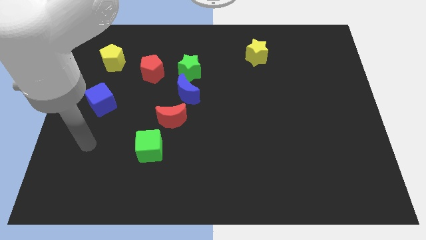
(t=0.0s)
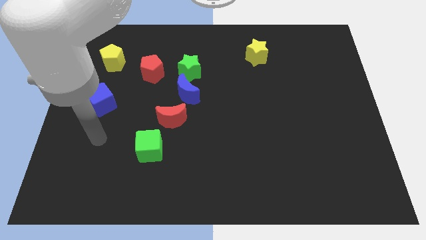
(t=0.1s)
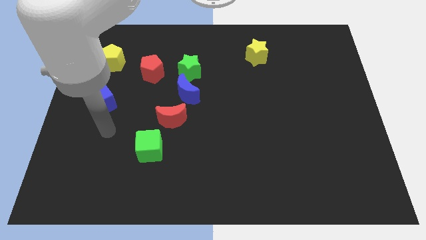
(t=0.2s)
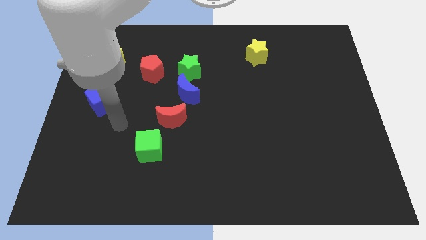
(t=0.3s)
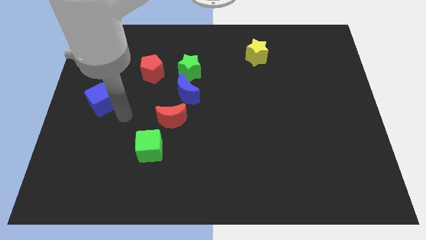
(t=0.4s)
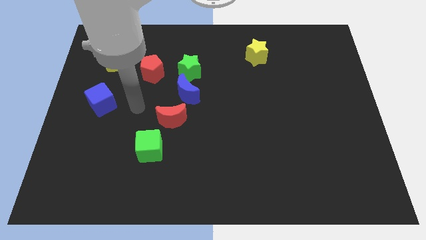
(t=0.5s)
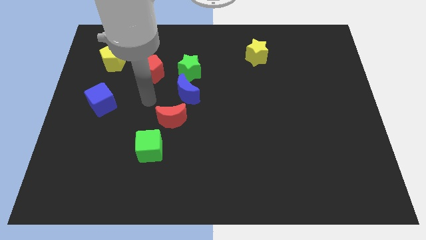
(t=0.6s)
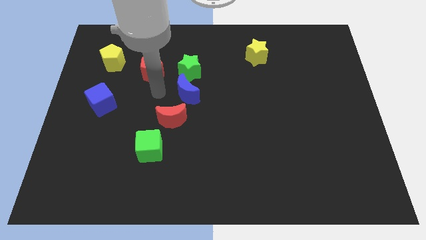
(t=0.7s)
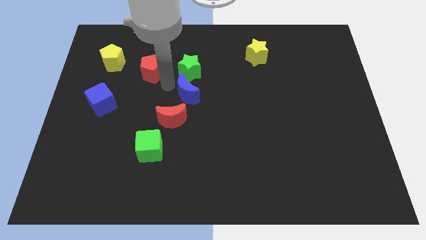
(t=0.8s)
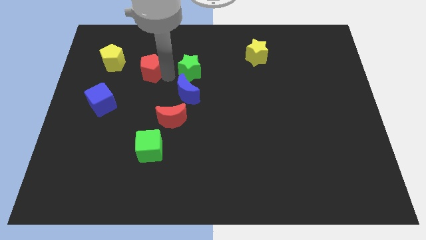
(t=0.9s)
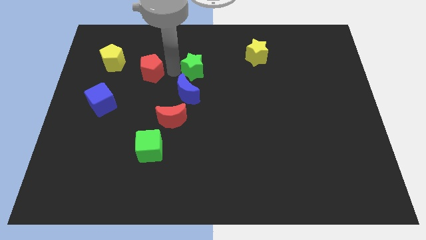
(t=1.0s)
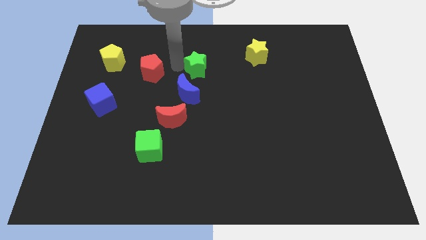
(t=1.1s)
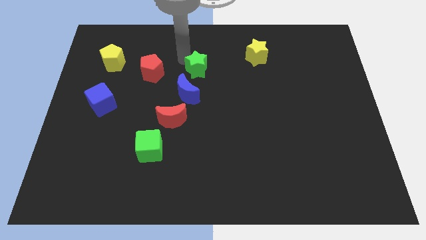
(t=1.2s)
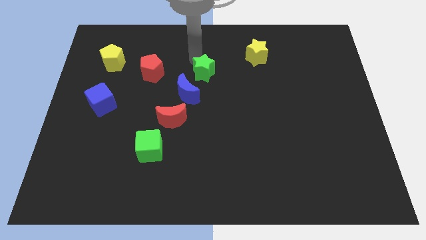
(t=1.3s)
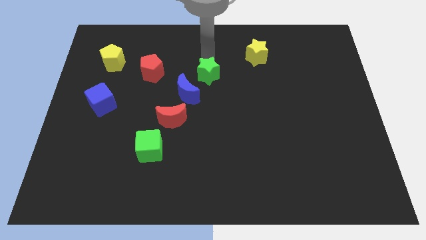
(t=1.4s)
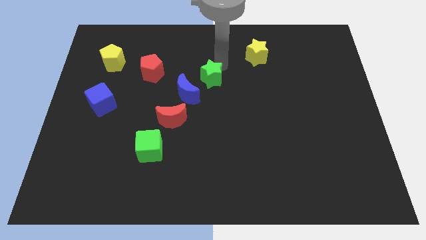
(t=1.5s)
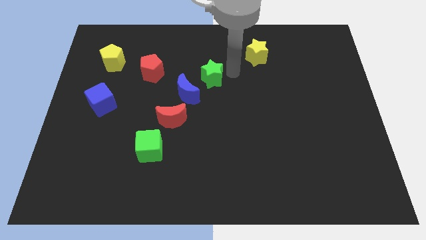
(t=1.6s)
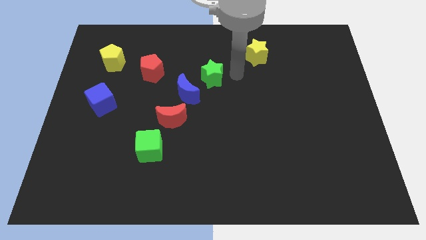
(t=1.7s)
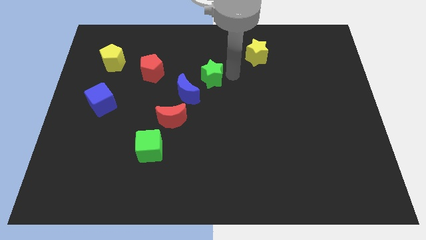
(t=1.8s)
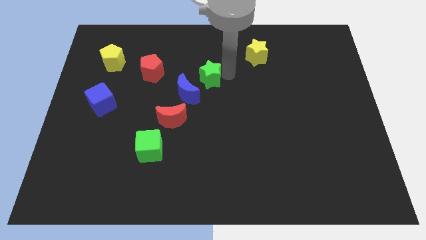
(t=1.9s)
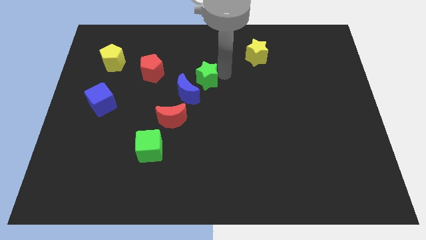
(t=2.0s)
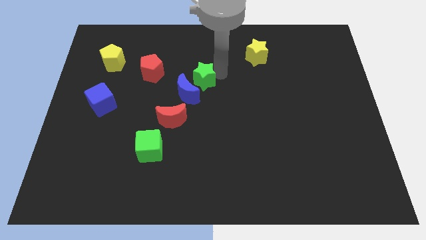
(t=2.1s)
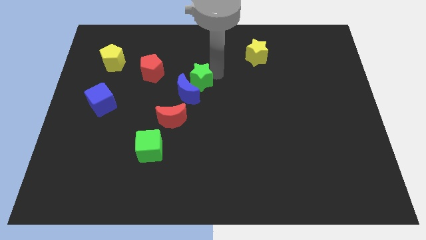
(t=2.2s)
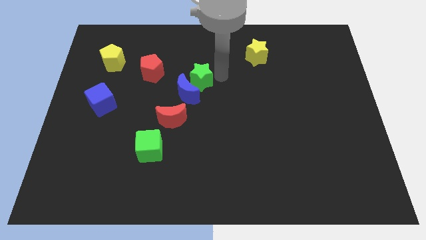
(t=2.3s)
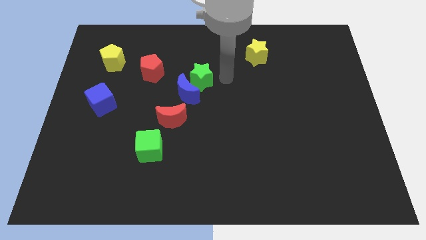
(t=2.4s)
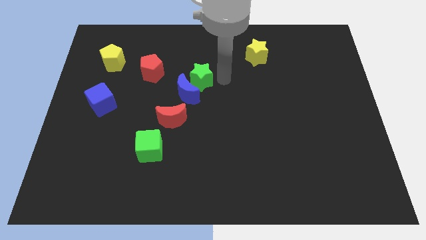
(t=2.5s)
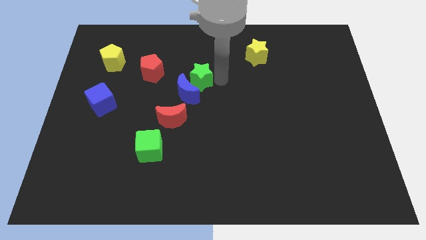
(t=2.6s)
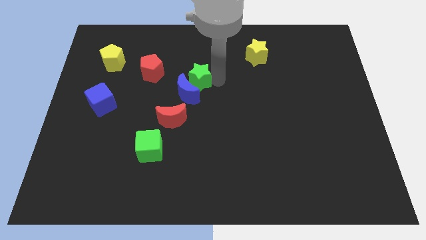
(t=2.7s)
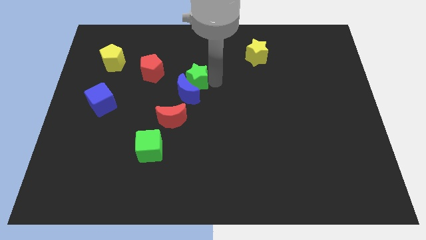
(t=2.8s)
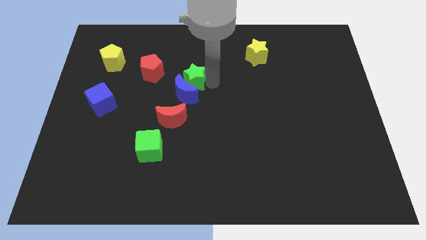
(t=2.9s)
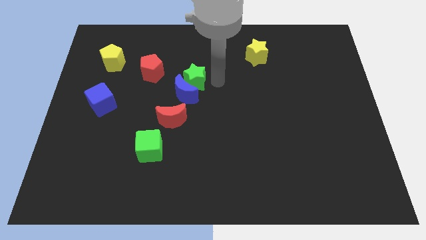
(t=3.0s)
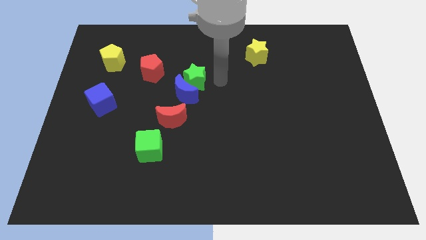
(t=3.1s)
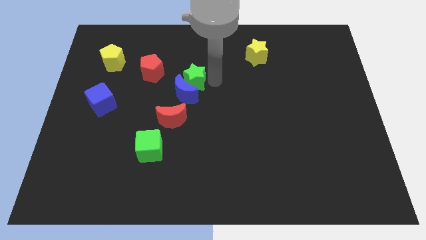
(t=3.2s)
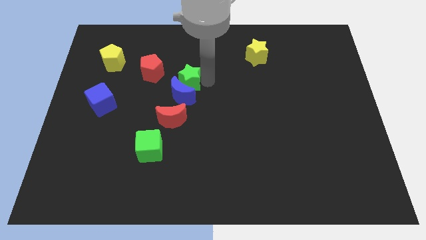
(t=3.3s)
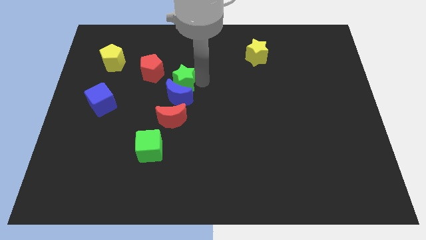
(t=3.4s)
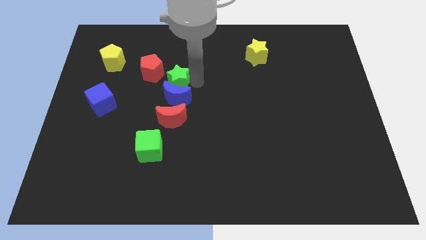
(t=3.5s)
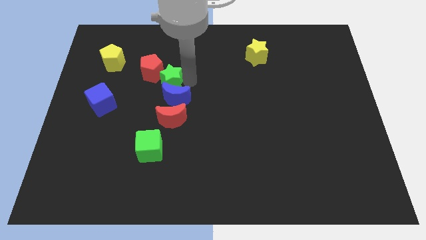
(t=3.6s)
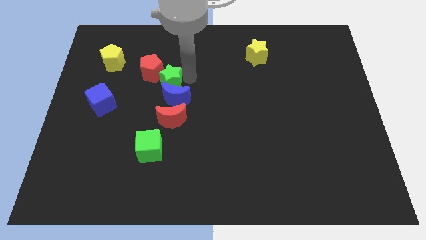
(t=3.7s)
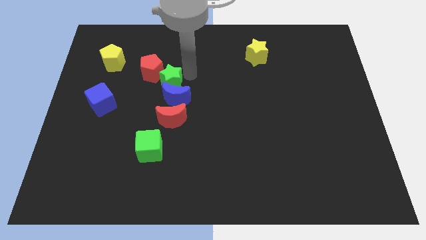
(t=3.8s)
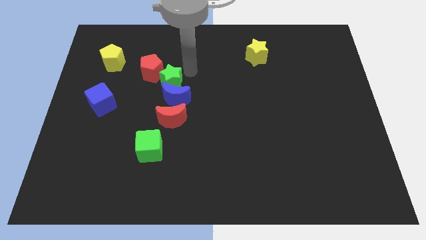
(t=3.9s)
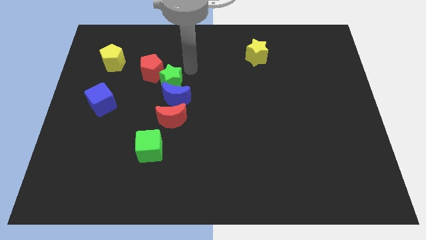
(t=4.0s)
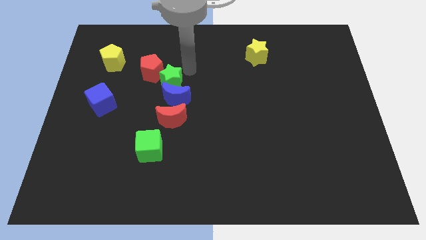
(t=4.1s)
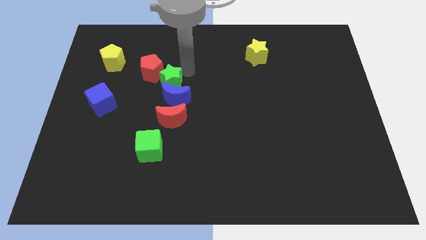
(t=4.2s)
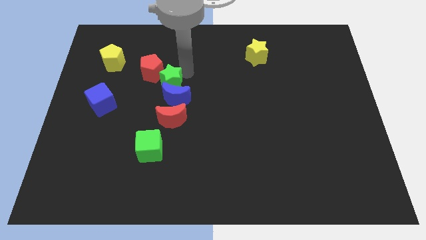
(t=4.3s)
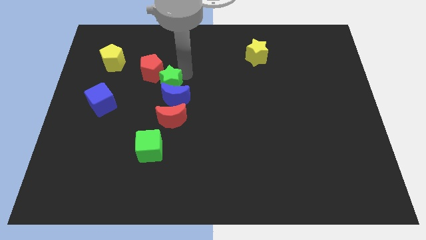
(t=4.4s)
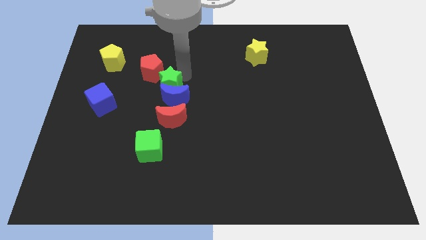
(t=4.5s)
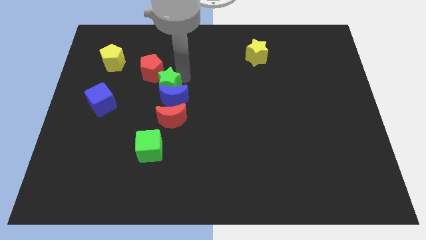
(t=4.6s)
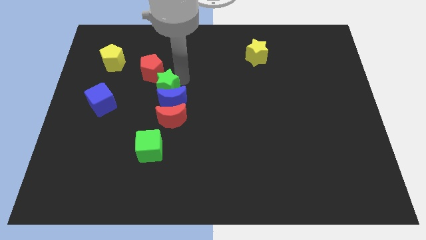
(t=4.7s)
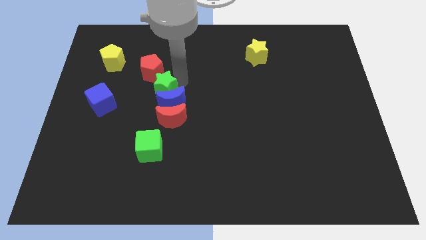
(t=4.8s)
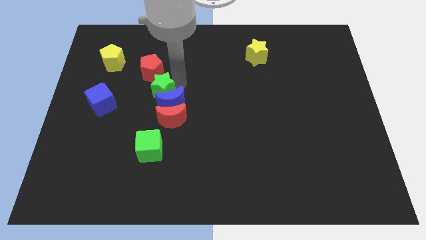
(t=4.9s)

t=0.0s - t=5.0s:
slide the green star to the right side of the blue cube

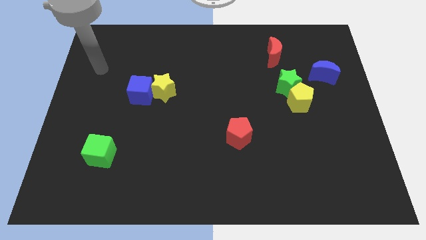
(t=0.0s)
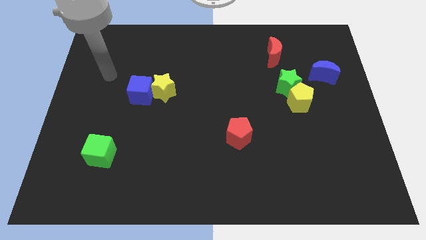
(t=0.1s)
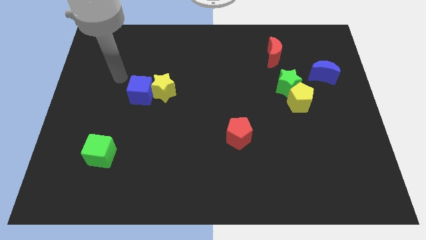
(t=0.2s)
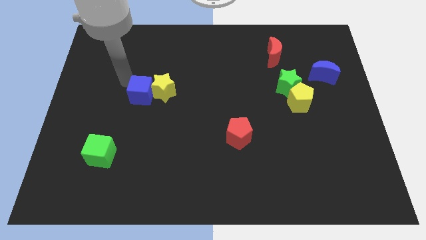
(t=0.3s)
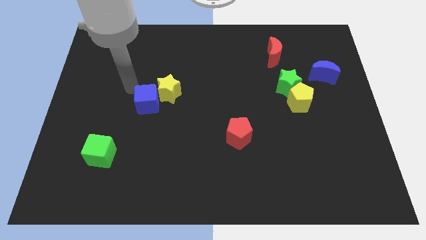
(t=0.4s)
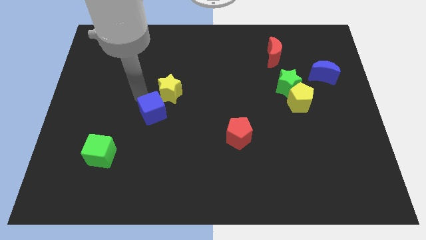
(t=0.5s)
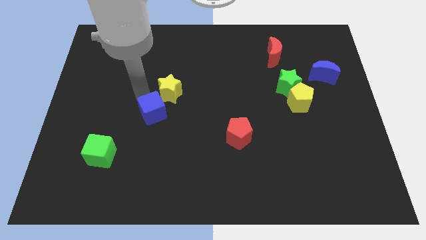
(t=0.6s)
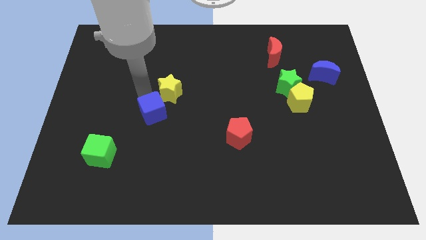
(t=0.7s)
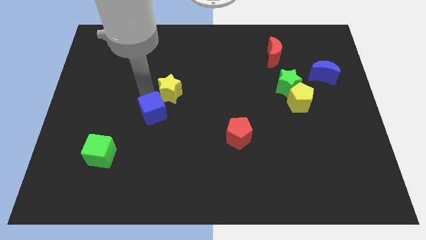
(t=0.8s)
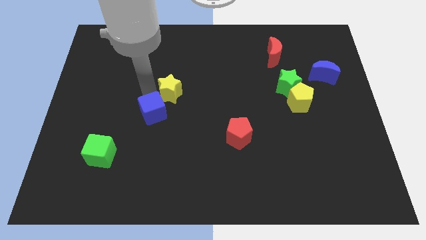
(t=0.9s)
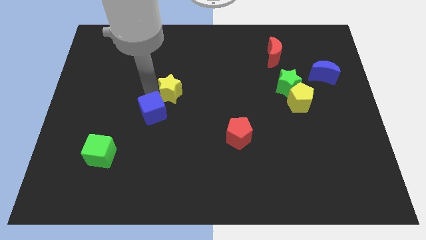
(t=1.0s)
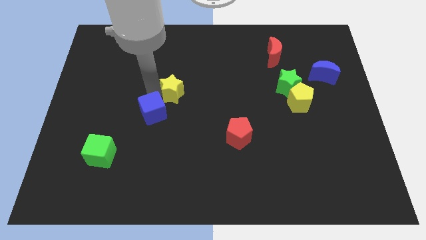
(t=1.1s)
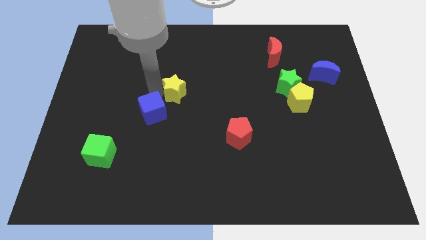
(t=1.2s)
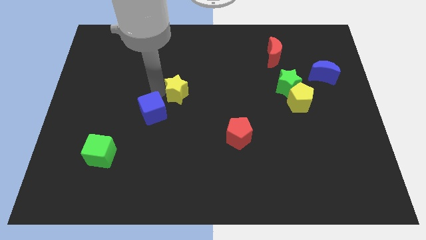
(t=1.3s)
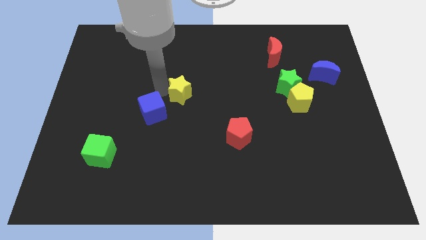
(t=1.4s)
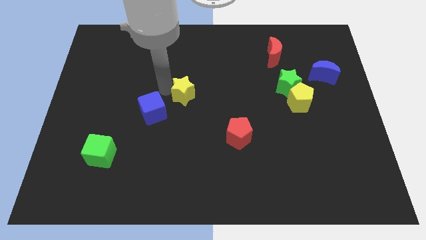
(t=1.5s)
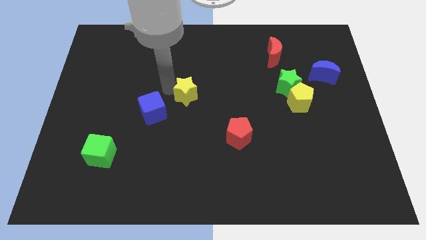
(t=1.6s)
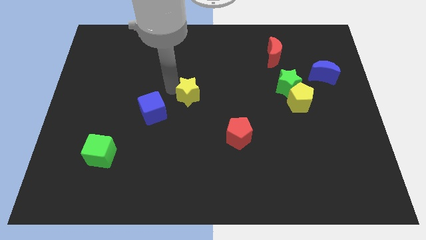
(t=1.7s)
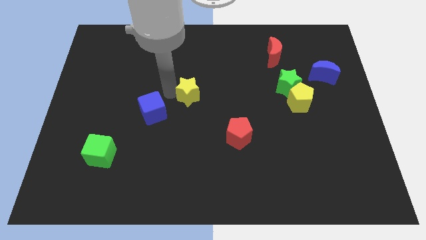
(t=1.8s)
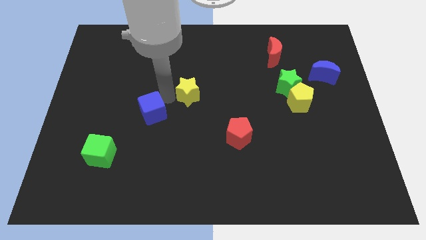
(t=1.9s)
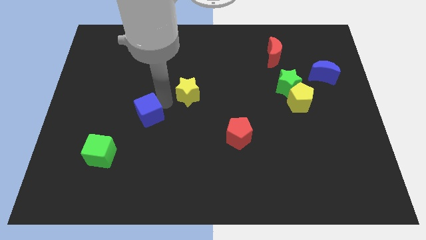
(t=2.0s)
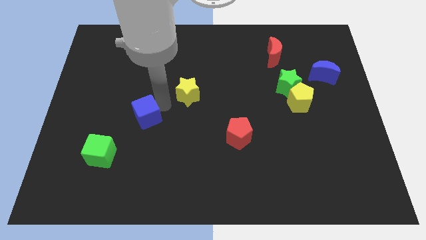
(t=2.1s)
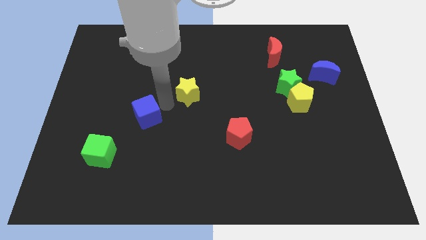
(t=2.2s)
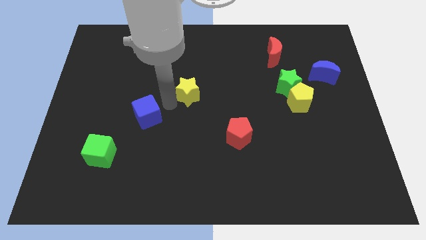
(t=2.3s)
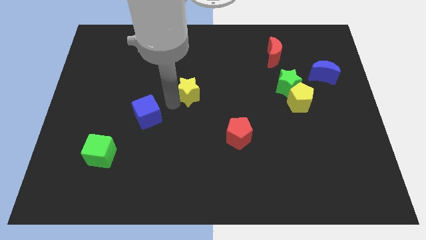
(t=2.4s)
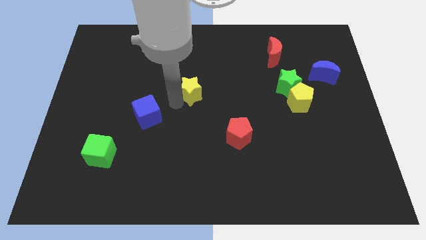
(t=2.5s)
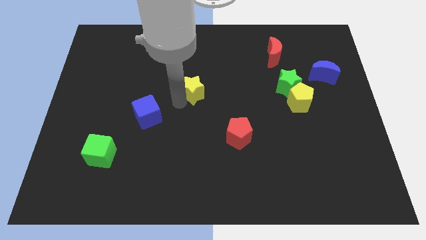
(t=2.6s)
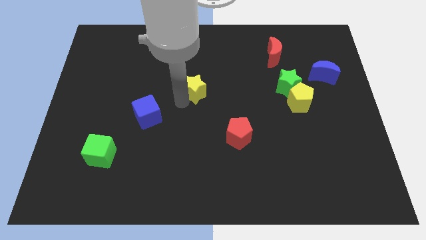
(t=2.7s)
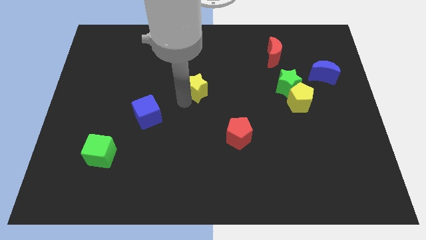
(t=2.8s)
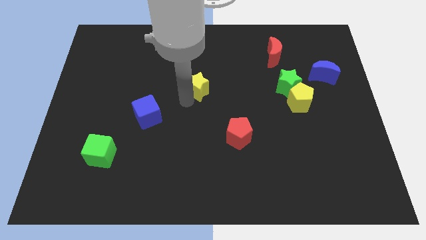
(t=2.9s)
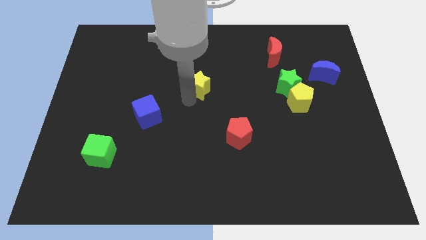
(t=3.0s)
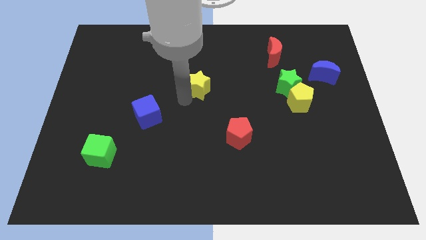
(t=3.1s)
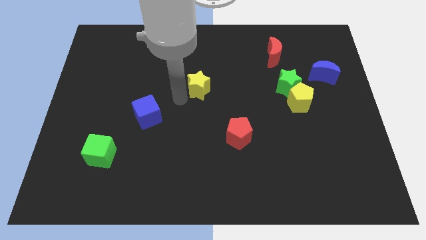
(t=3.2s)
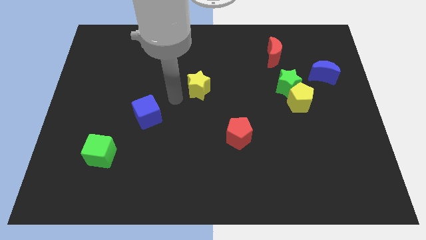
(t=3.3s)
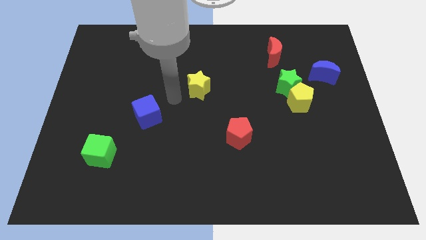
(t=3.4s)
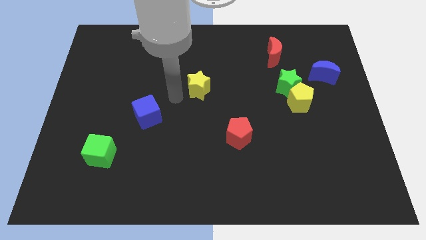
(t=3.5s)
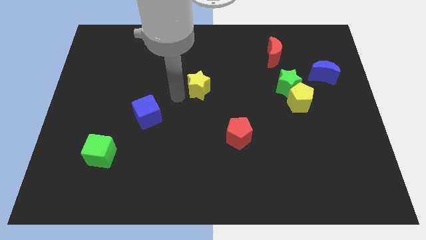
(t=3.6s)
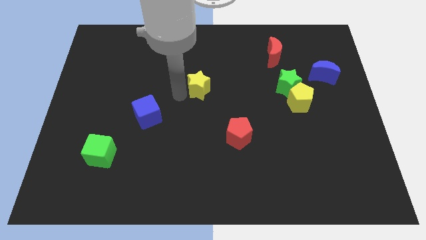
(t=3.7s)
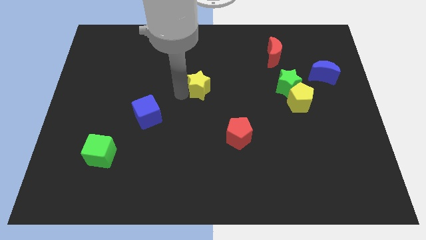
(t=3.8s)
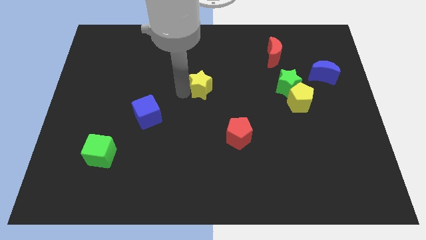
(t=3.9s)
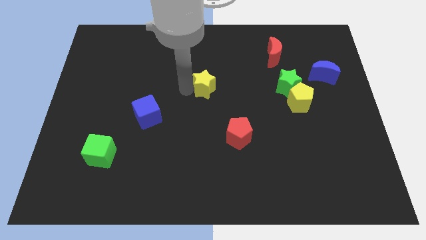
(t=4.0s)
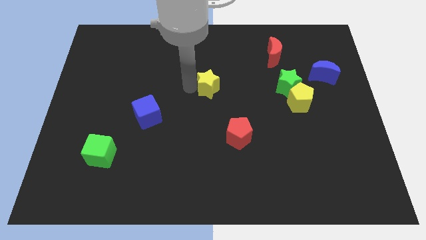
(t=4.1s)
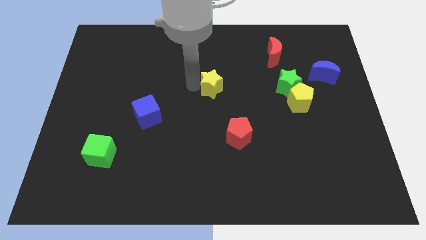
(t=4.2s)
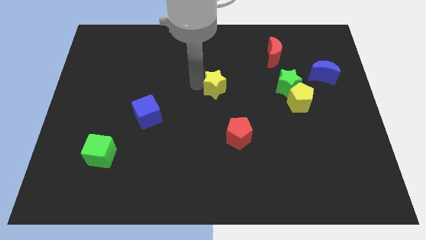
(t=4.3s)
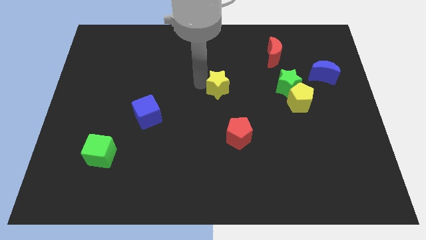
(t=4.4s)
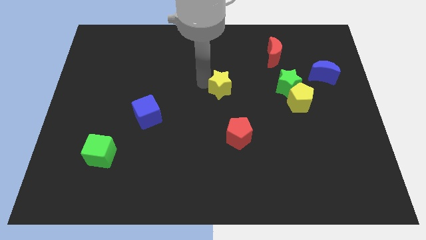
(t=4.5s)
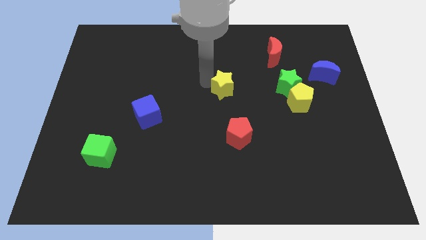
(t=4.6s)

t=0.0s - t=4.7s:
push the yellow star to the left side of the green star
